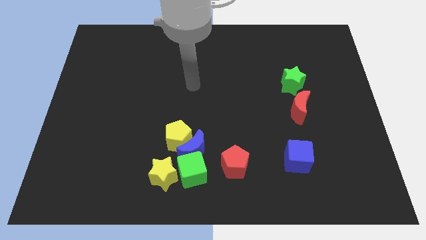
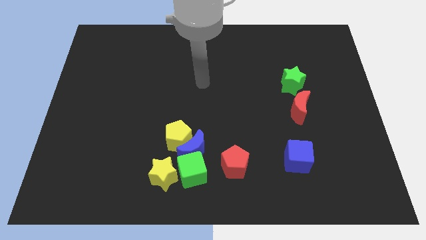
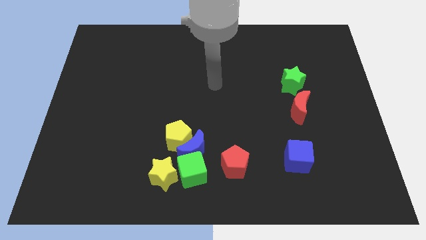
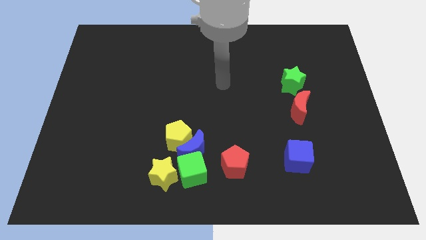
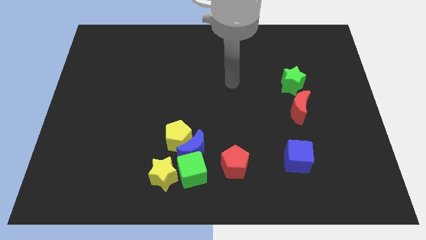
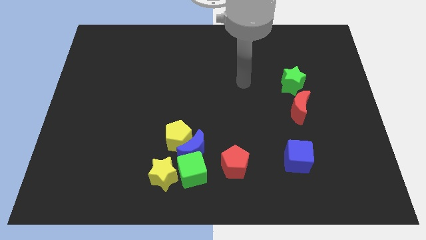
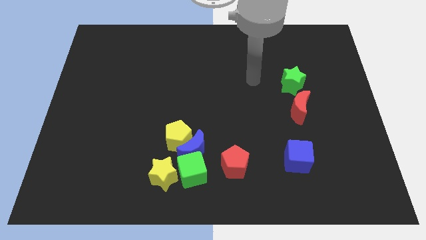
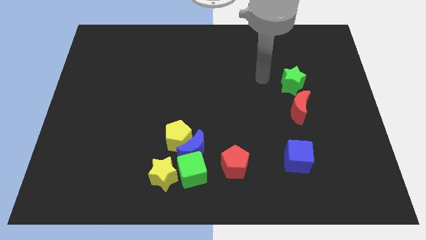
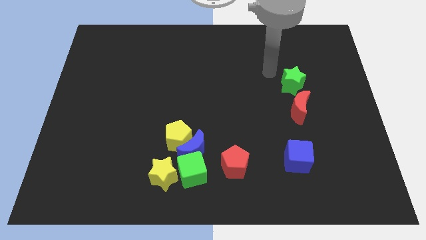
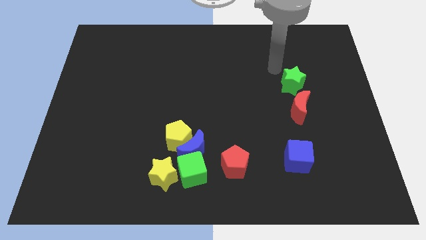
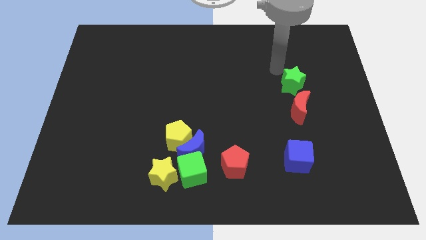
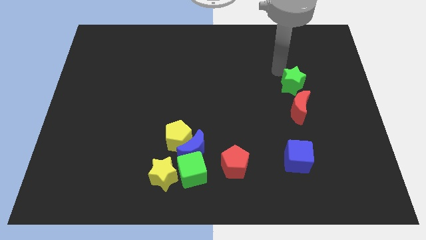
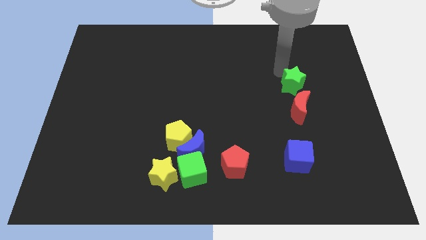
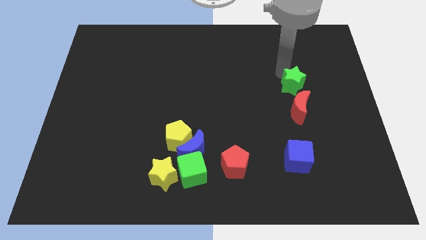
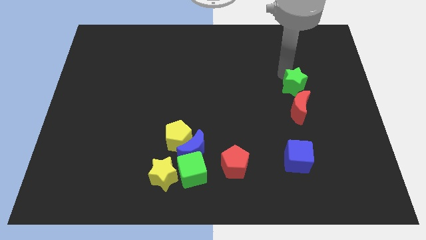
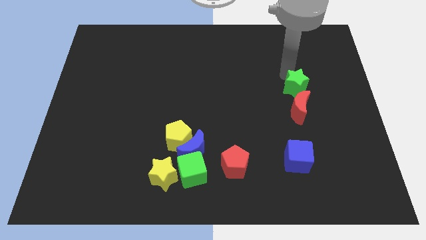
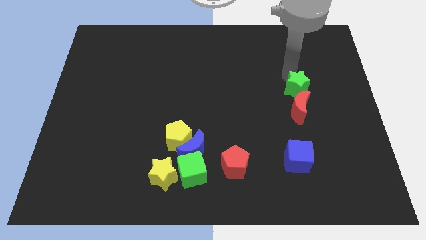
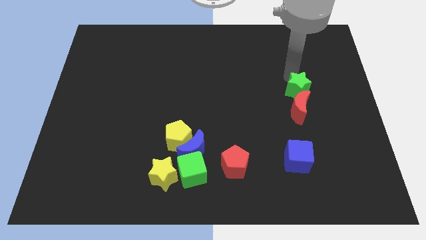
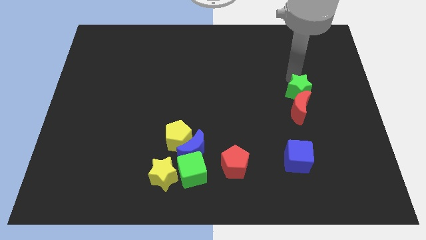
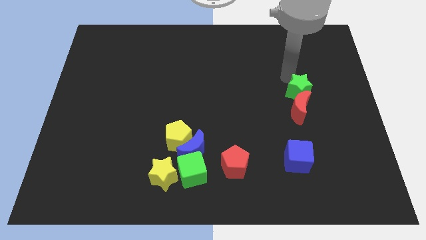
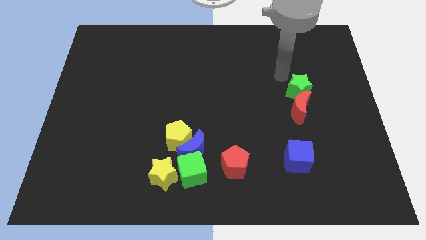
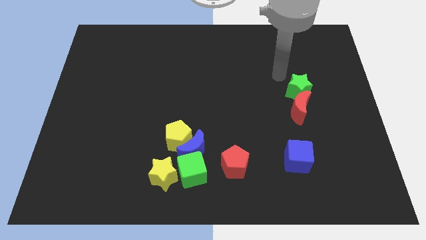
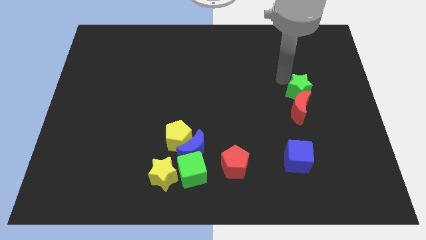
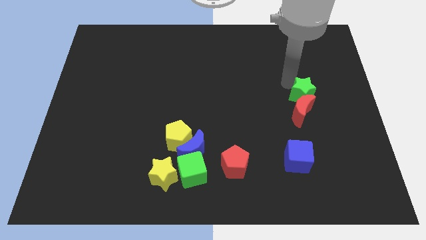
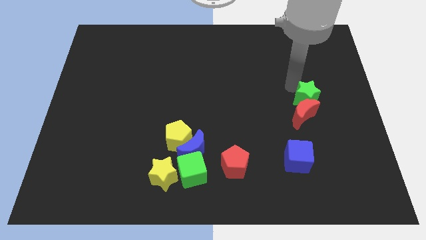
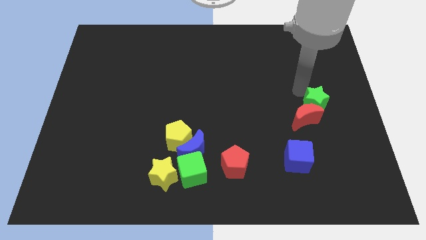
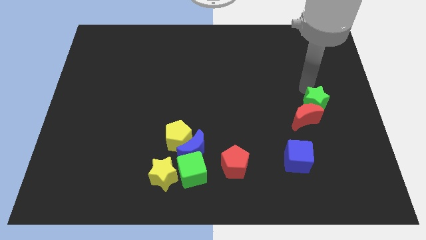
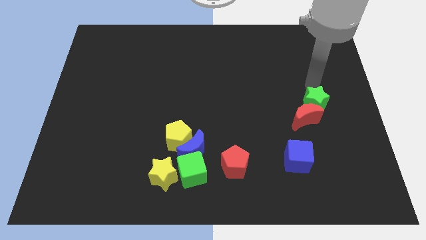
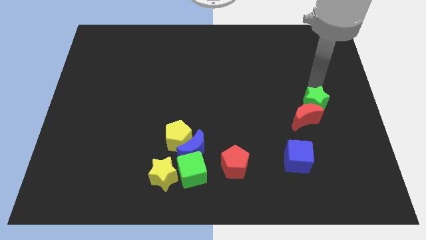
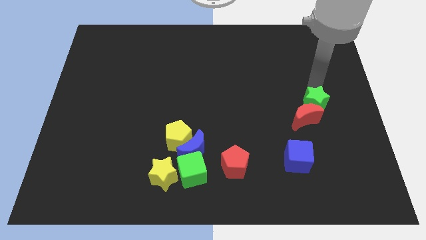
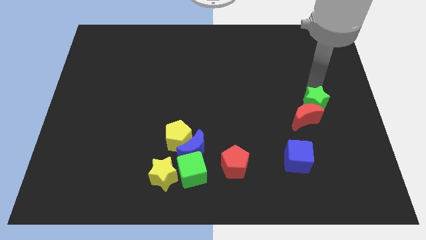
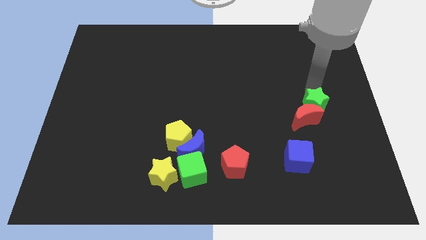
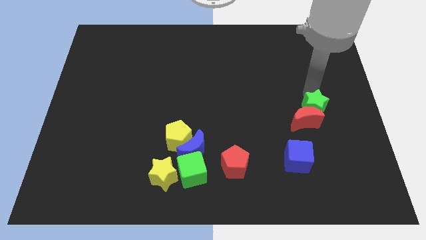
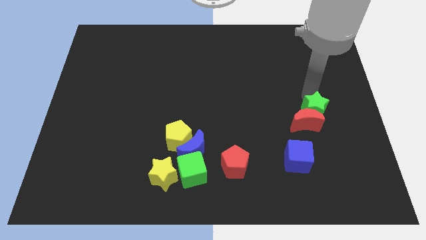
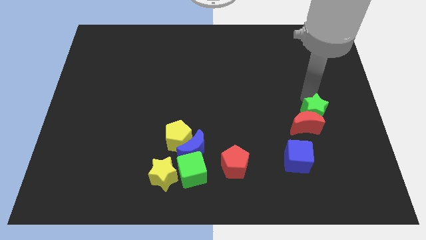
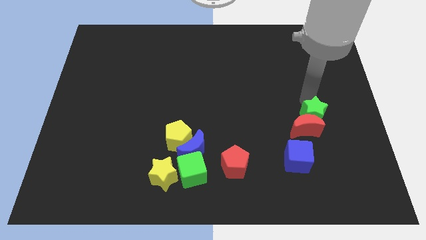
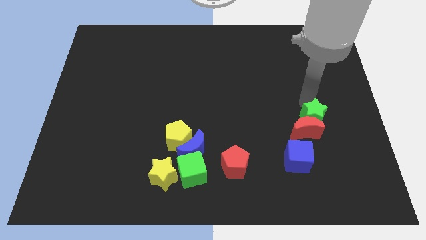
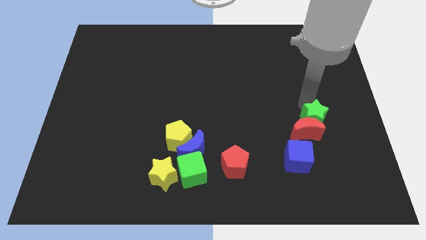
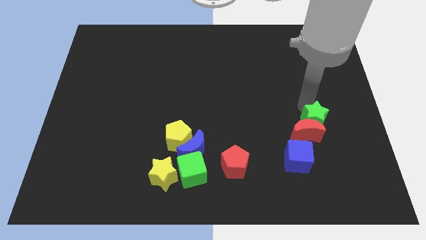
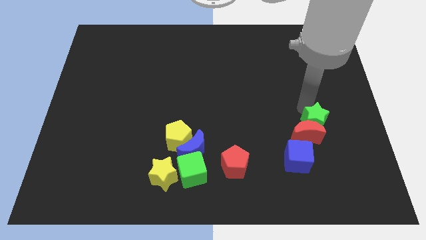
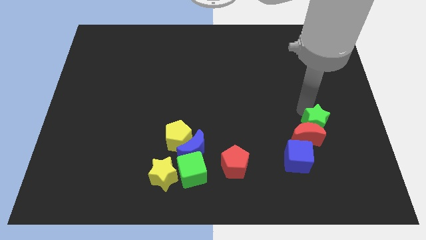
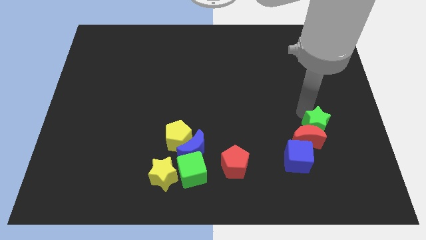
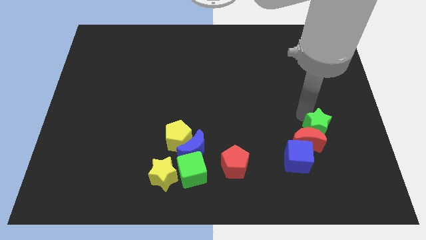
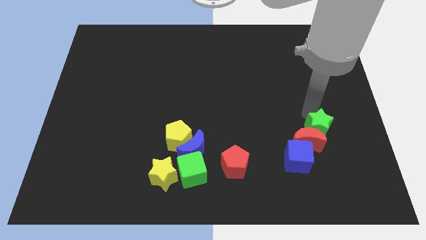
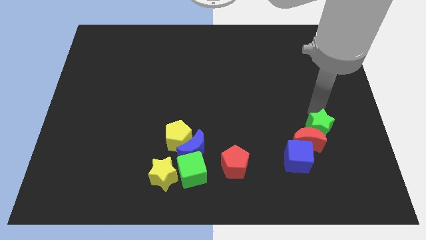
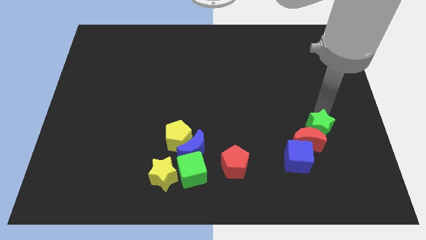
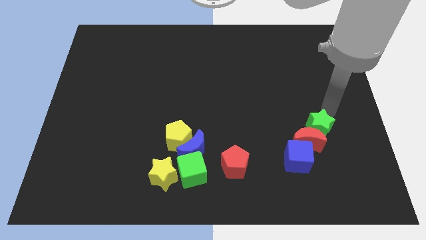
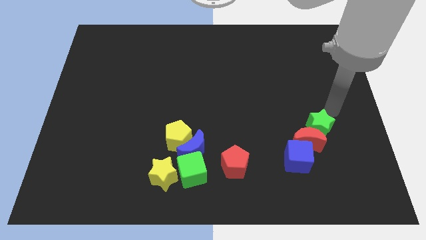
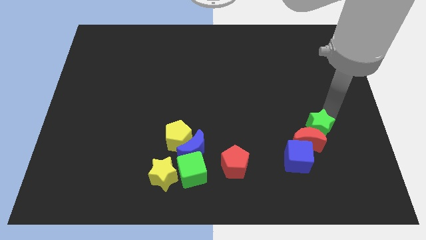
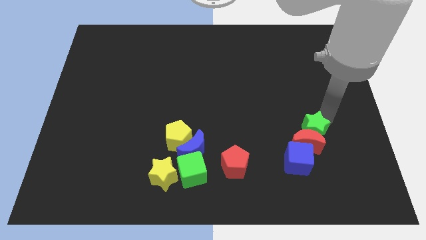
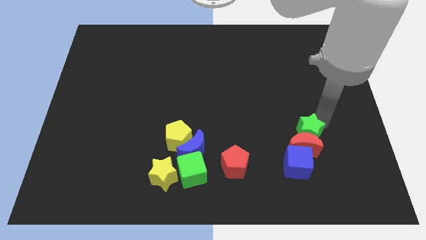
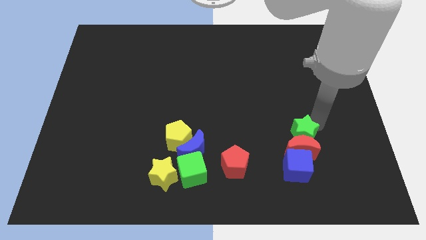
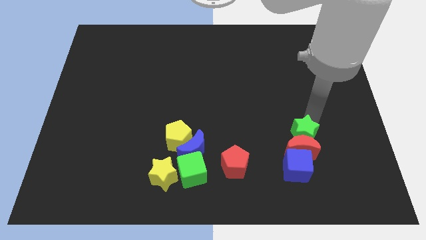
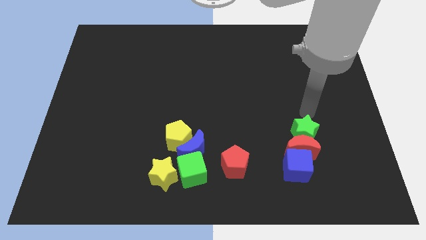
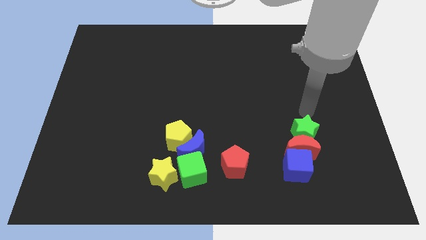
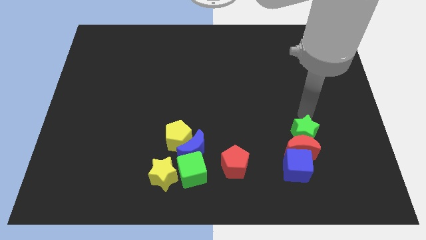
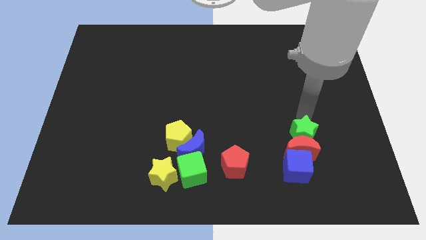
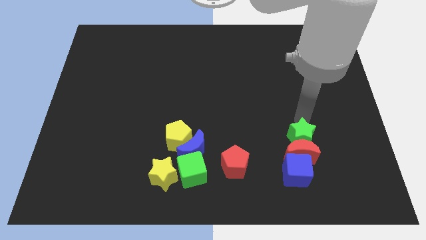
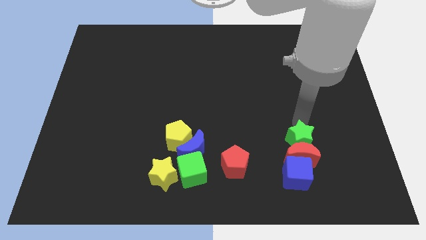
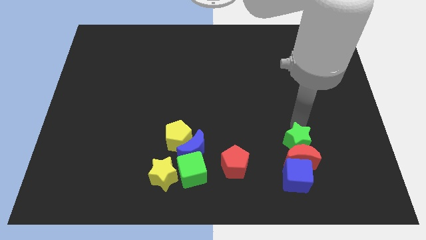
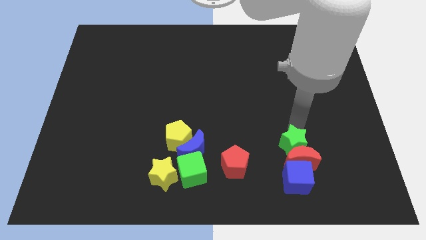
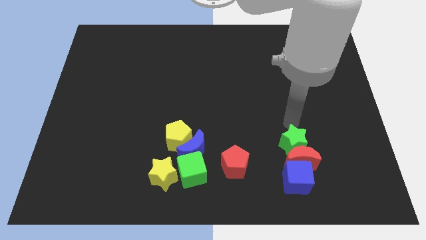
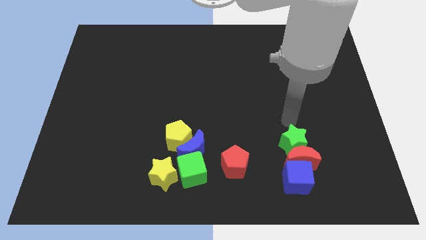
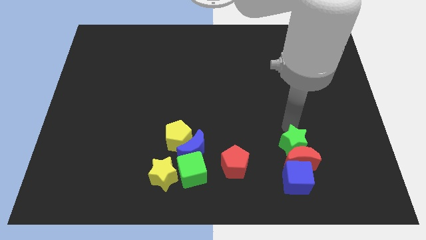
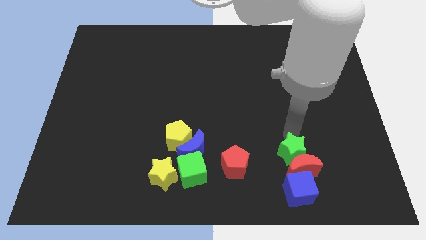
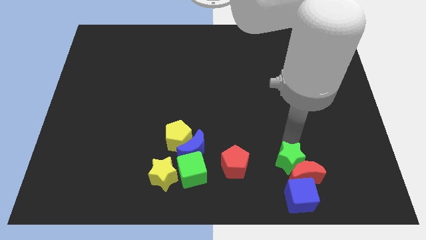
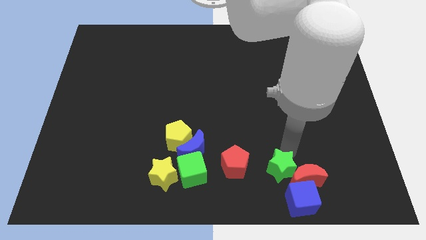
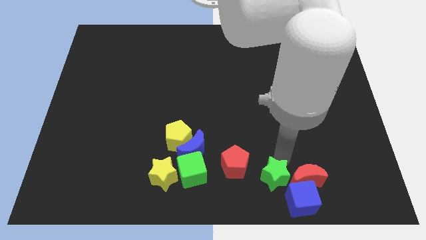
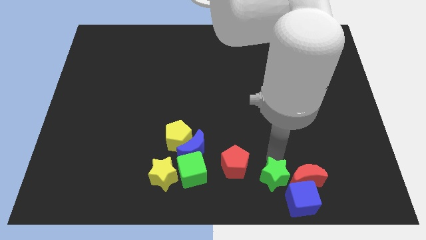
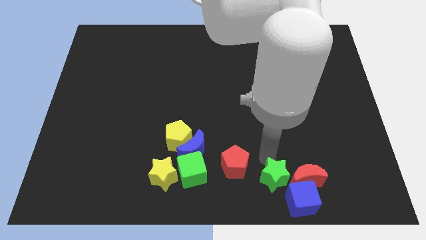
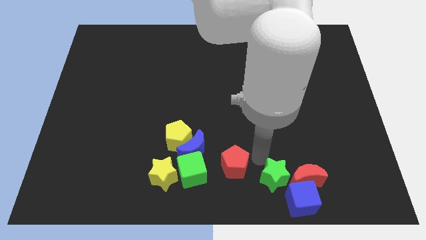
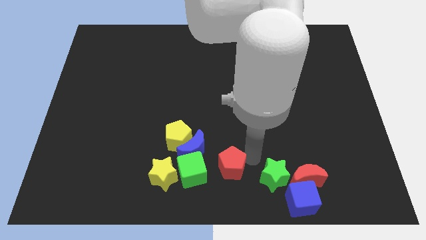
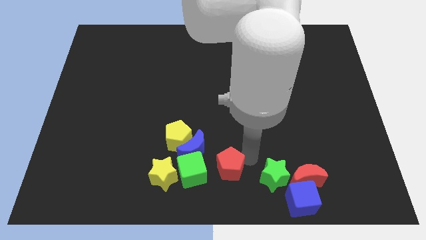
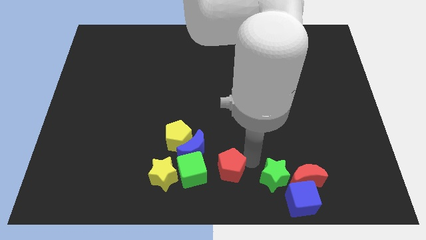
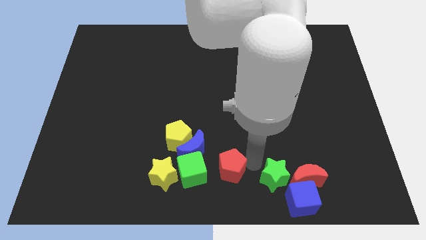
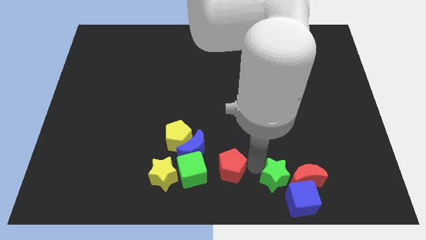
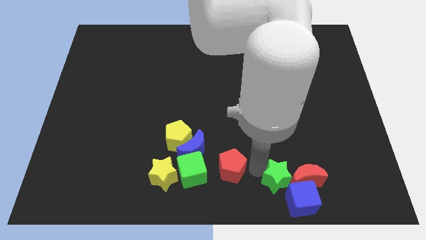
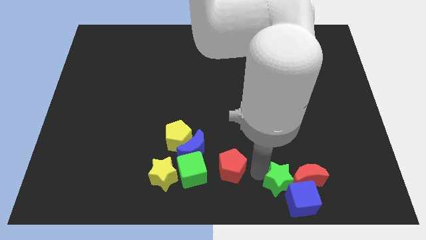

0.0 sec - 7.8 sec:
push the green star next to the blue cube
